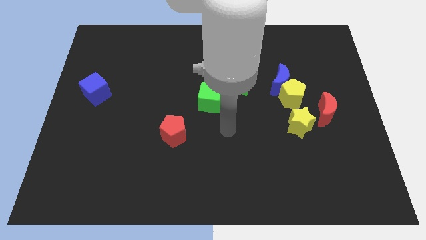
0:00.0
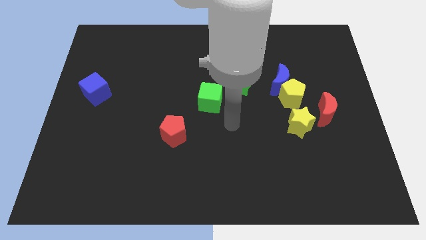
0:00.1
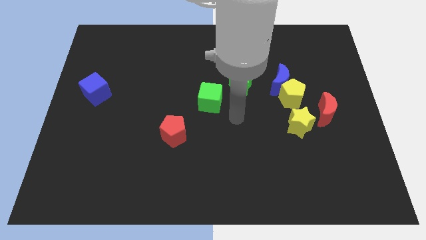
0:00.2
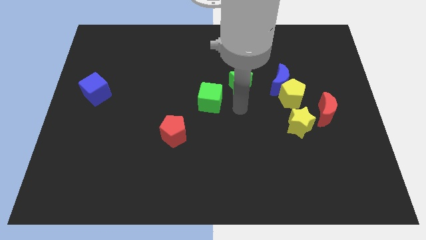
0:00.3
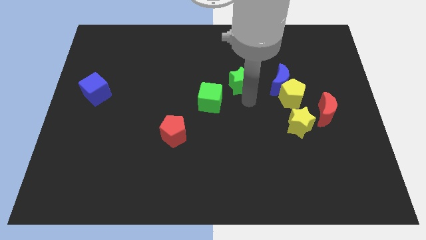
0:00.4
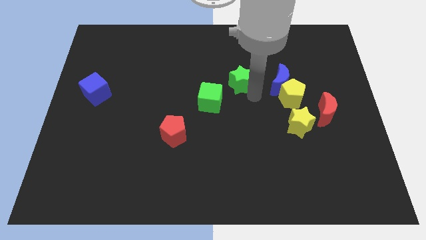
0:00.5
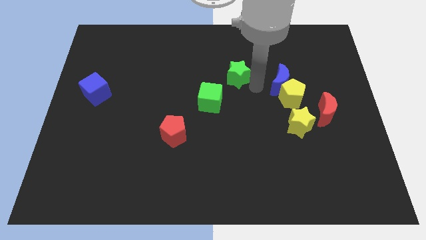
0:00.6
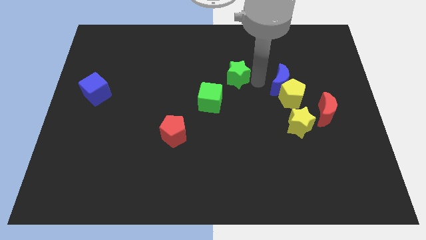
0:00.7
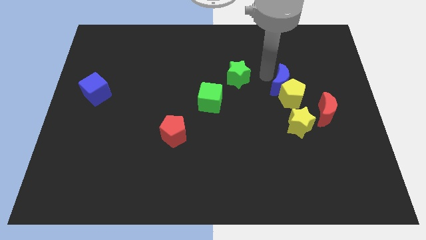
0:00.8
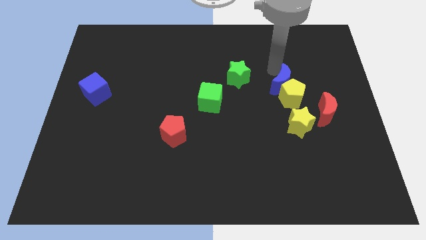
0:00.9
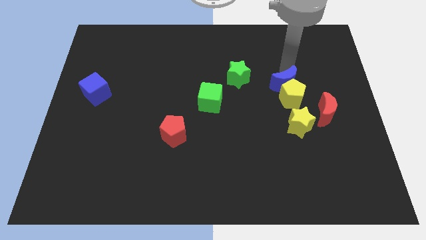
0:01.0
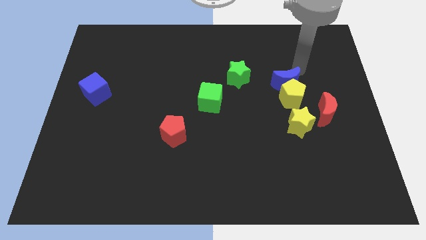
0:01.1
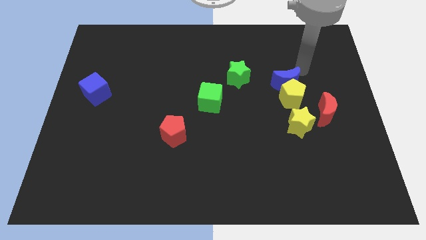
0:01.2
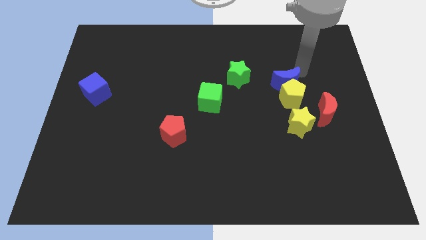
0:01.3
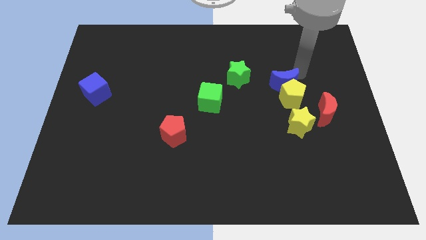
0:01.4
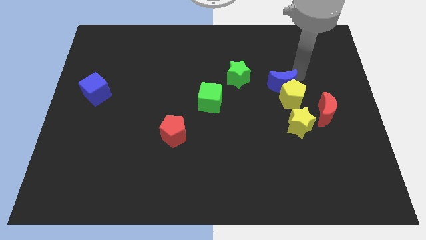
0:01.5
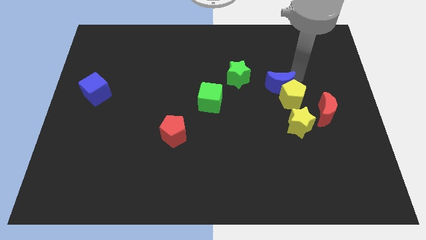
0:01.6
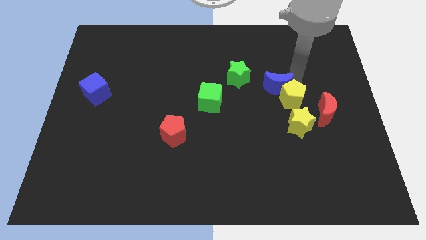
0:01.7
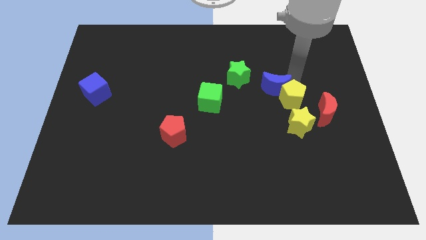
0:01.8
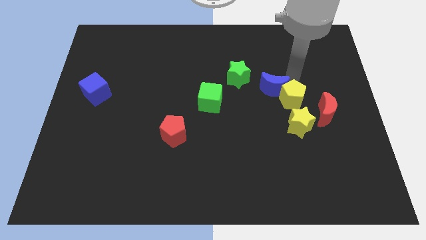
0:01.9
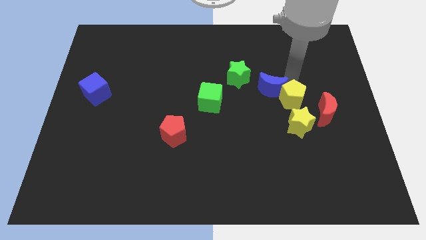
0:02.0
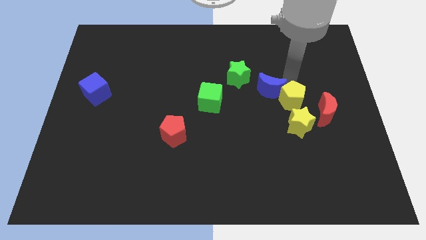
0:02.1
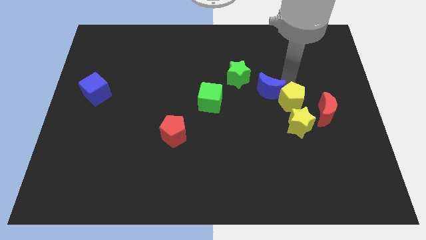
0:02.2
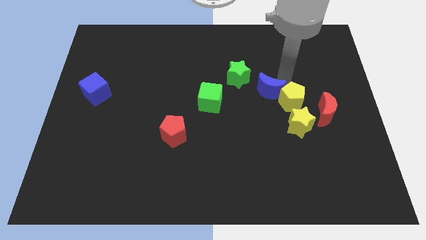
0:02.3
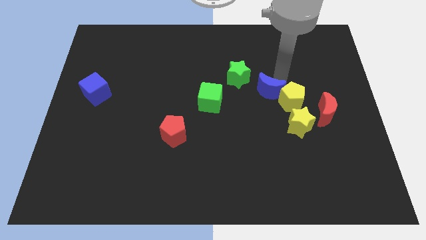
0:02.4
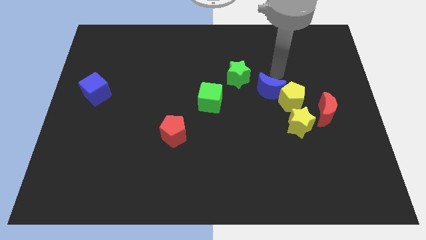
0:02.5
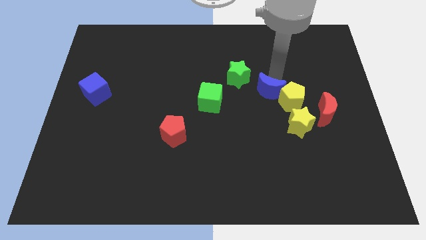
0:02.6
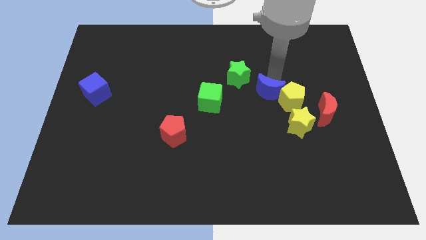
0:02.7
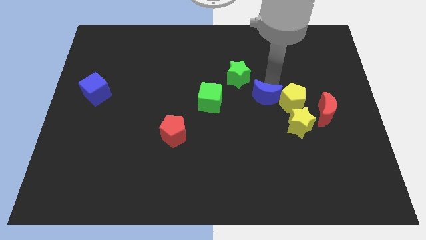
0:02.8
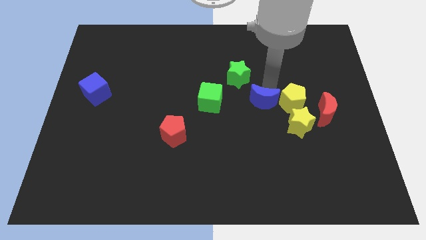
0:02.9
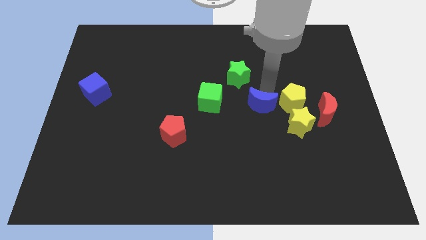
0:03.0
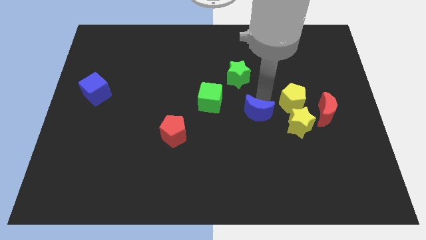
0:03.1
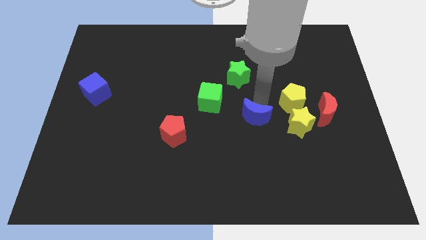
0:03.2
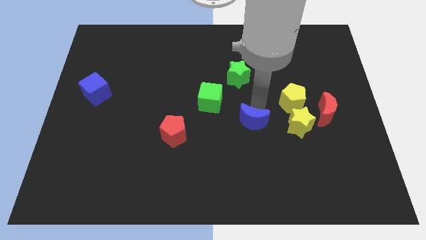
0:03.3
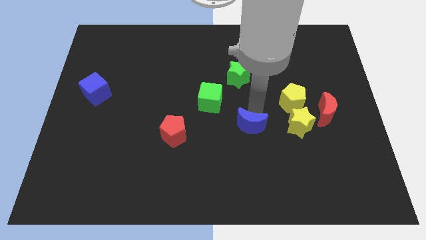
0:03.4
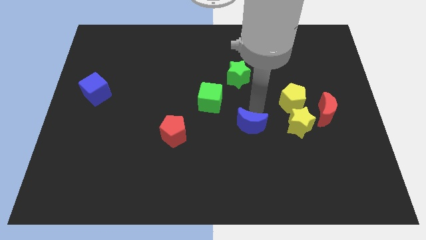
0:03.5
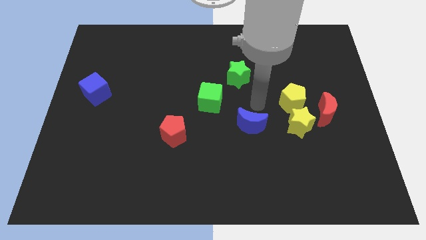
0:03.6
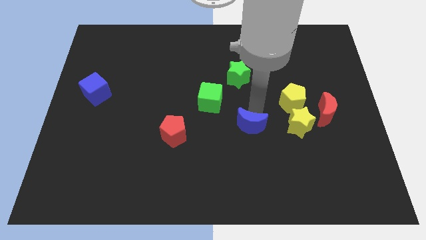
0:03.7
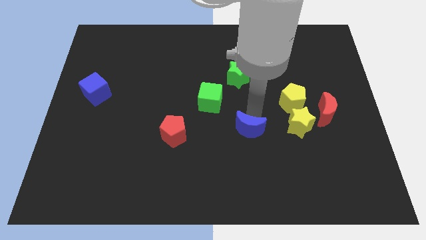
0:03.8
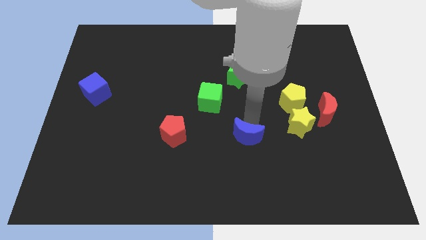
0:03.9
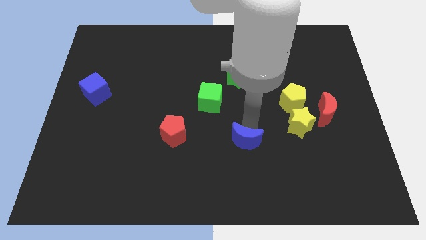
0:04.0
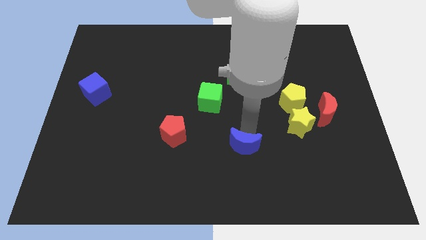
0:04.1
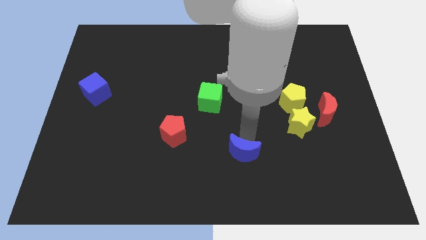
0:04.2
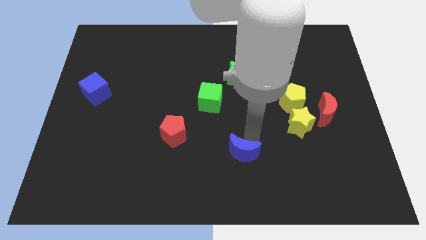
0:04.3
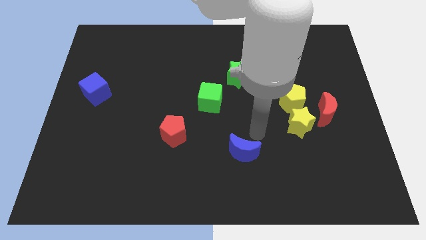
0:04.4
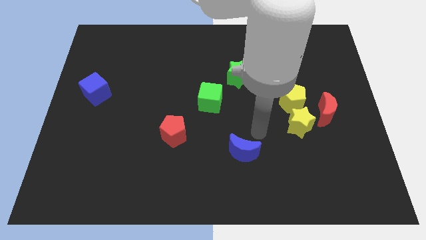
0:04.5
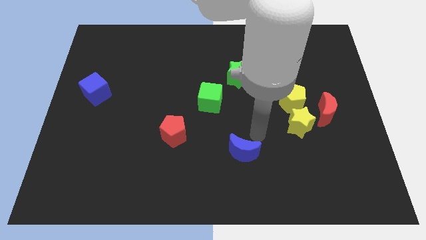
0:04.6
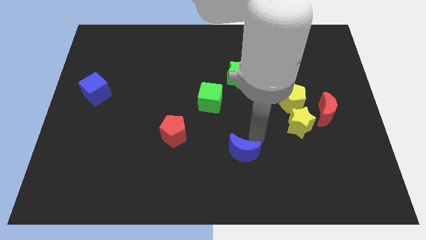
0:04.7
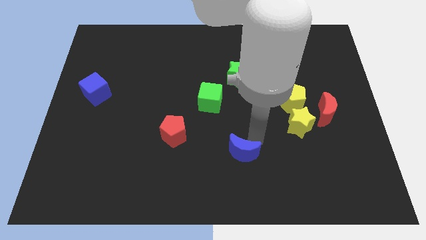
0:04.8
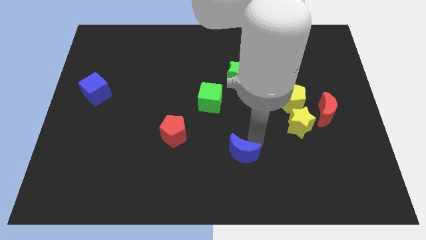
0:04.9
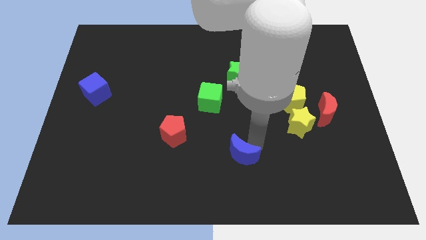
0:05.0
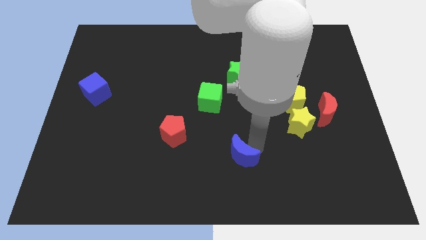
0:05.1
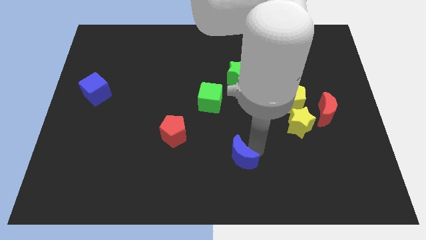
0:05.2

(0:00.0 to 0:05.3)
move the blue moon to the bottom
